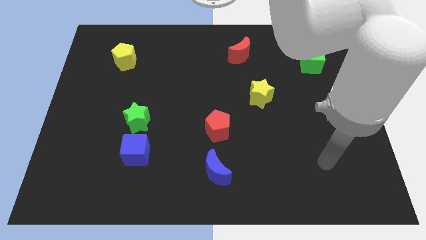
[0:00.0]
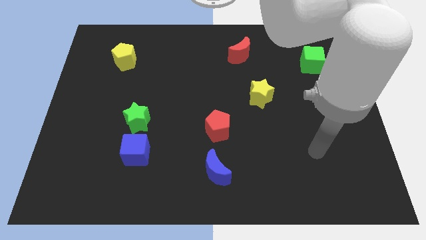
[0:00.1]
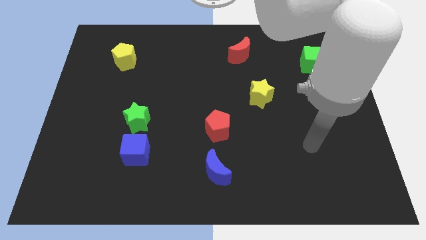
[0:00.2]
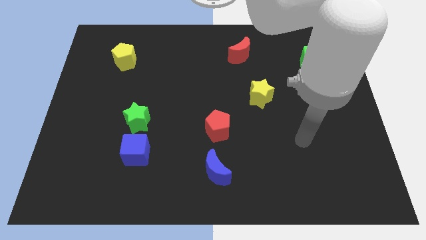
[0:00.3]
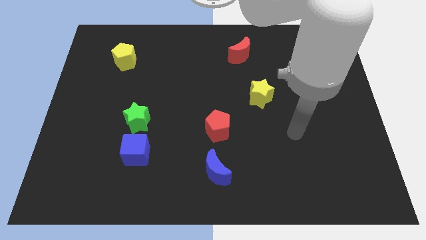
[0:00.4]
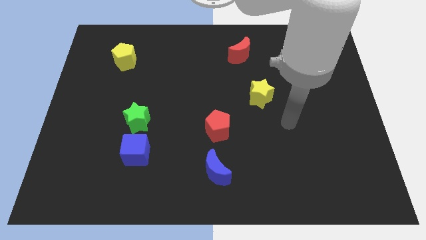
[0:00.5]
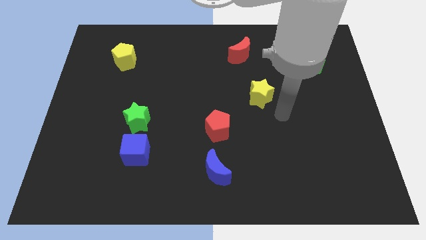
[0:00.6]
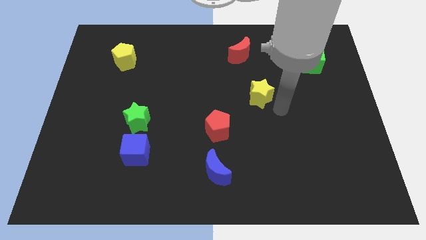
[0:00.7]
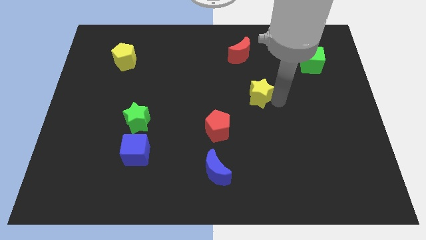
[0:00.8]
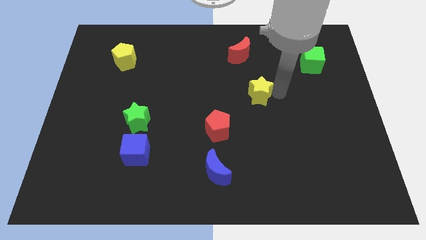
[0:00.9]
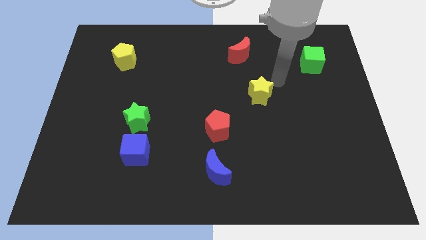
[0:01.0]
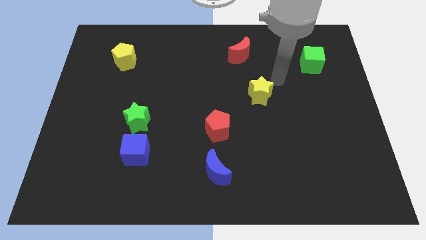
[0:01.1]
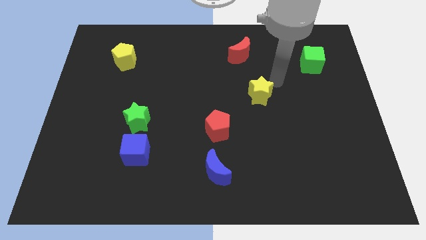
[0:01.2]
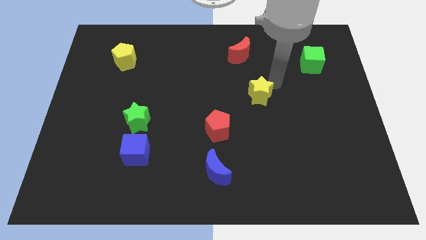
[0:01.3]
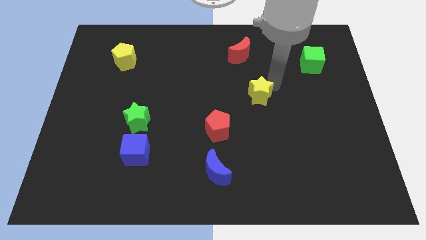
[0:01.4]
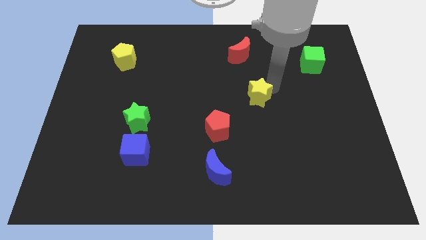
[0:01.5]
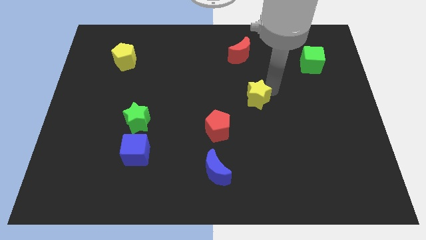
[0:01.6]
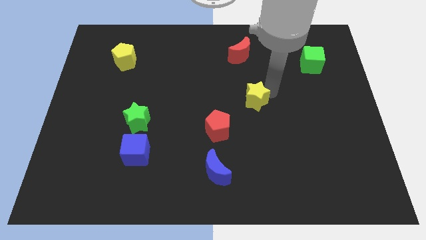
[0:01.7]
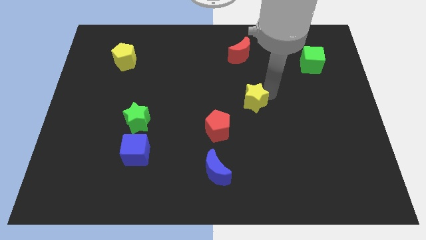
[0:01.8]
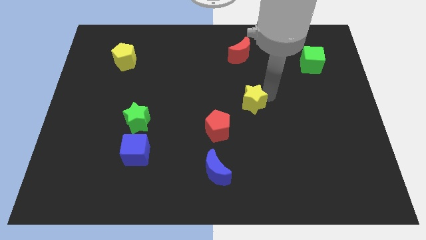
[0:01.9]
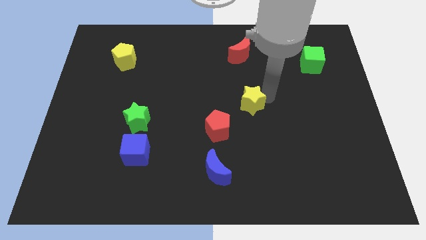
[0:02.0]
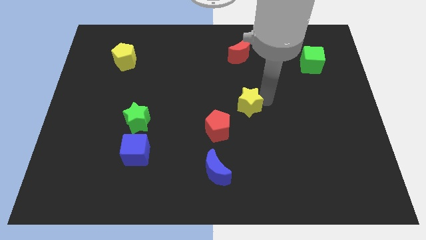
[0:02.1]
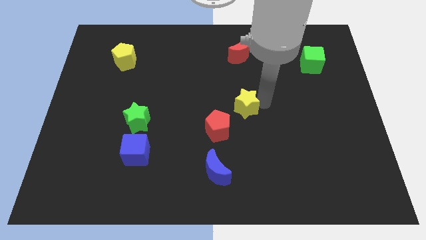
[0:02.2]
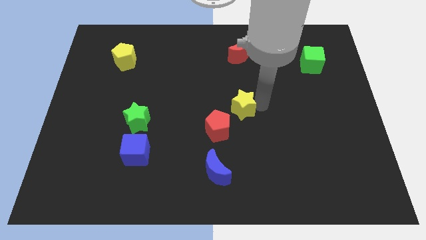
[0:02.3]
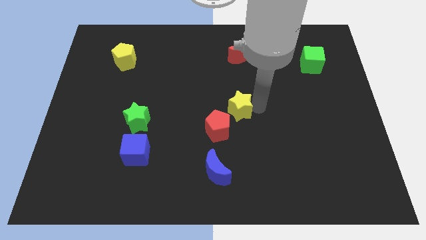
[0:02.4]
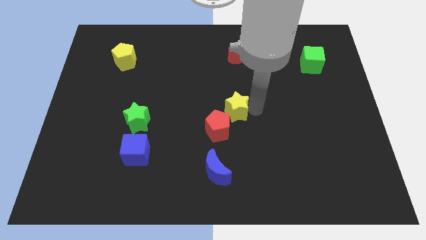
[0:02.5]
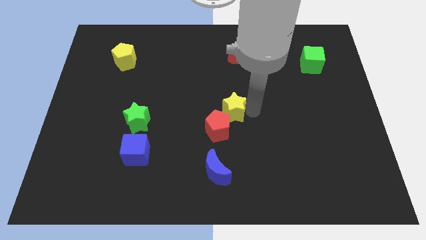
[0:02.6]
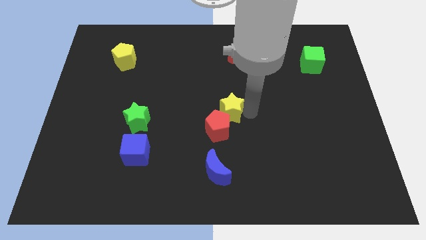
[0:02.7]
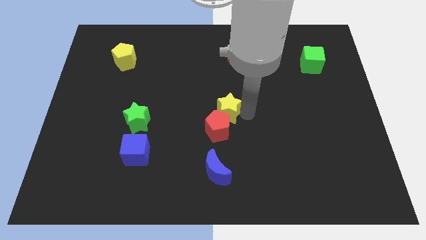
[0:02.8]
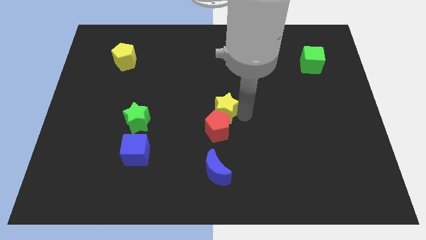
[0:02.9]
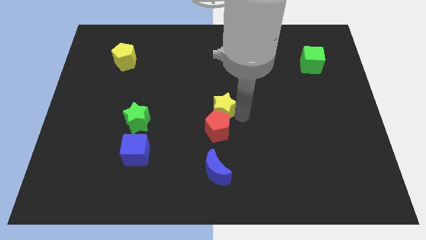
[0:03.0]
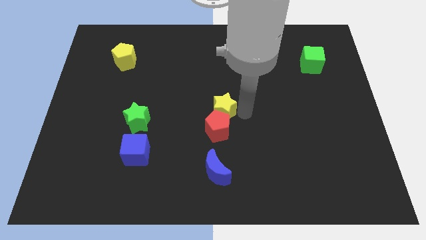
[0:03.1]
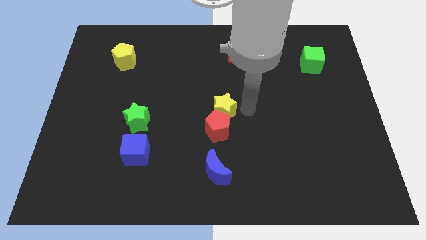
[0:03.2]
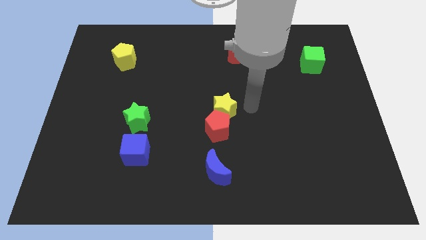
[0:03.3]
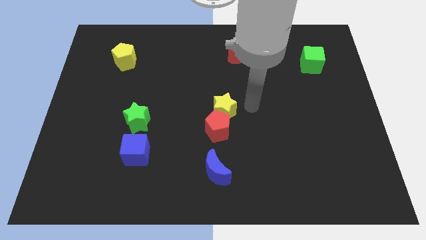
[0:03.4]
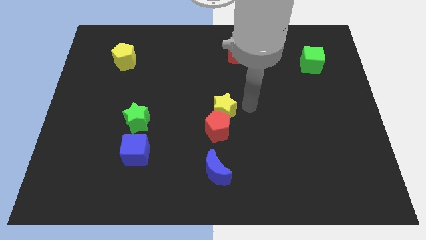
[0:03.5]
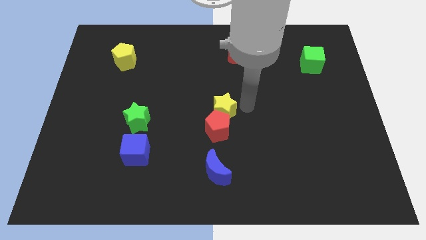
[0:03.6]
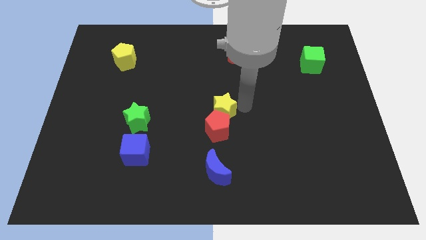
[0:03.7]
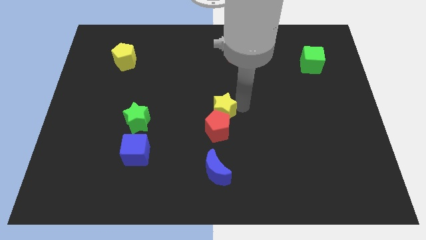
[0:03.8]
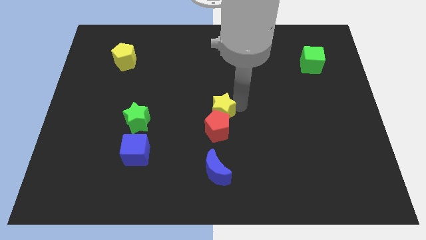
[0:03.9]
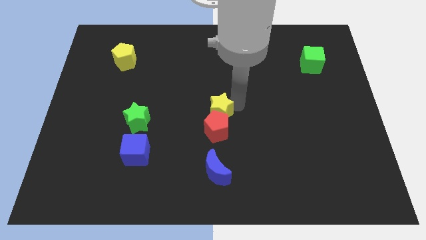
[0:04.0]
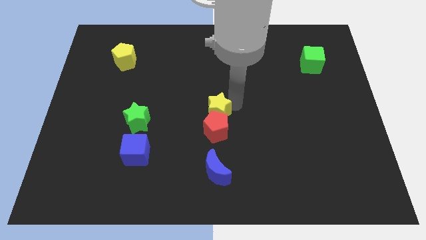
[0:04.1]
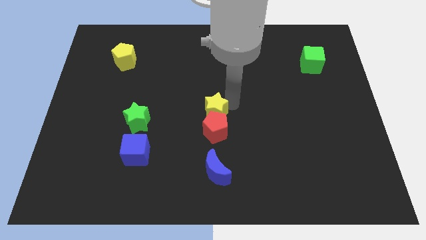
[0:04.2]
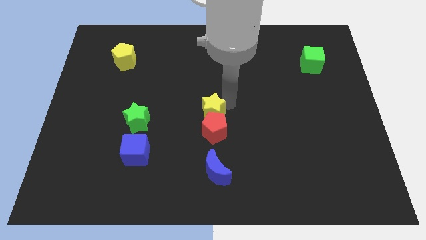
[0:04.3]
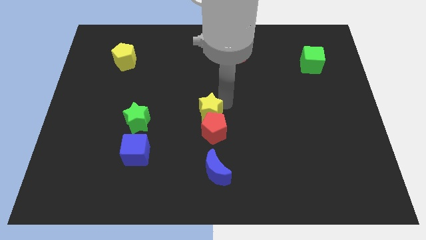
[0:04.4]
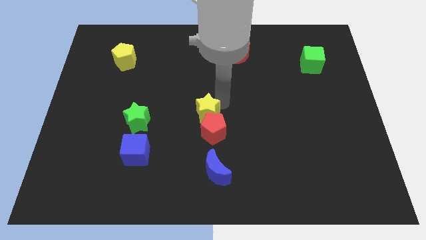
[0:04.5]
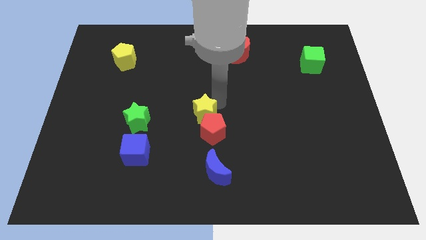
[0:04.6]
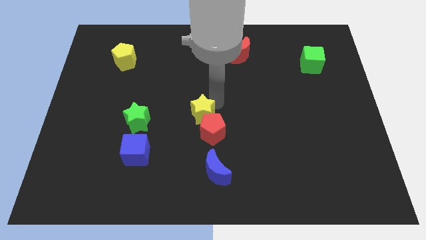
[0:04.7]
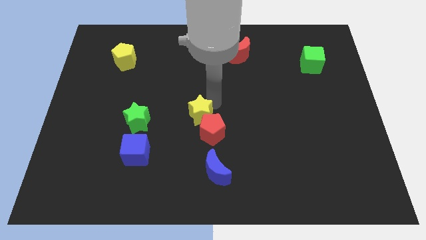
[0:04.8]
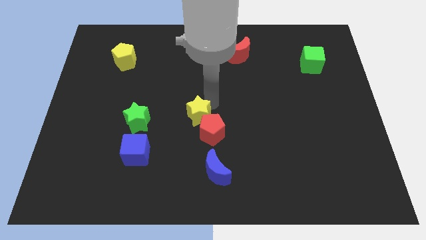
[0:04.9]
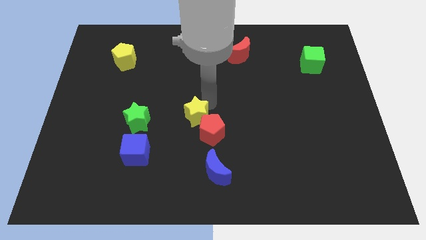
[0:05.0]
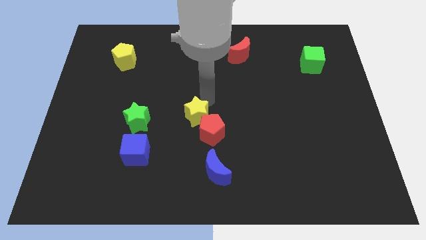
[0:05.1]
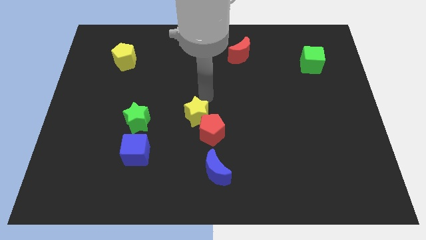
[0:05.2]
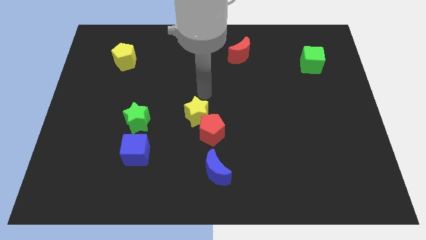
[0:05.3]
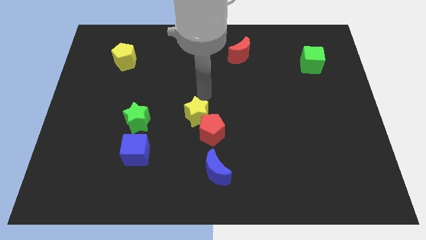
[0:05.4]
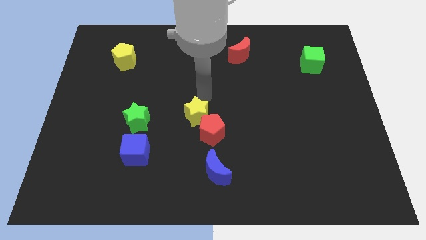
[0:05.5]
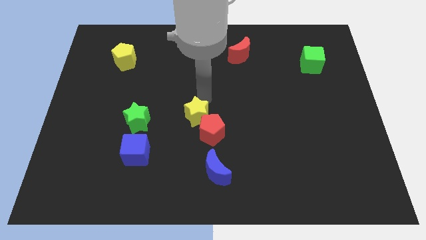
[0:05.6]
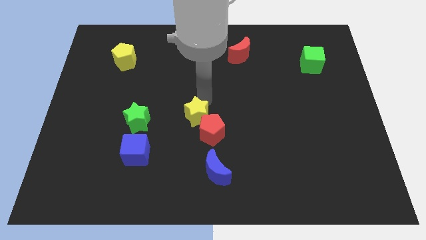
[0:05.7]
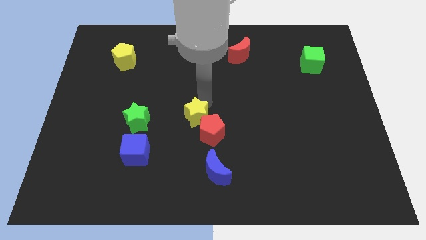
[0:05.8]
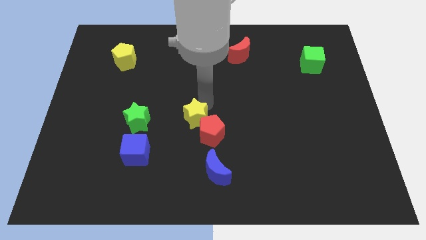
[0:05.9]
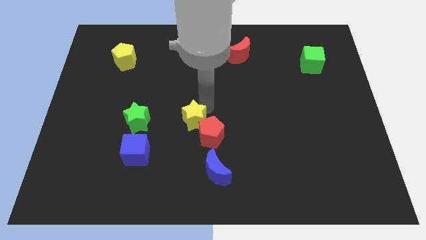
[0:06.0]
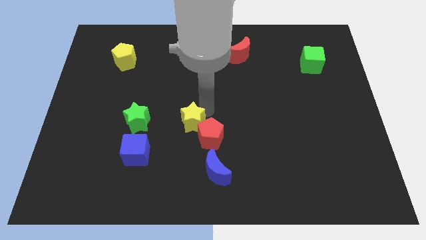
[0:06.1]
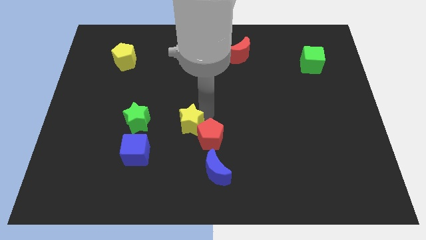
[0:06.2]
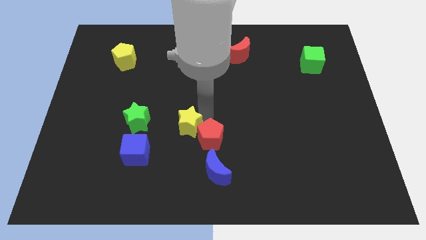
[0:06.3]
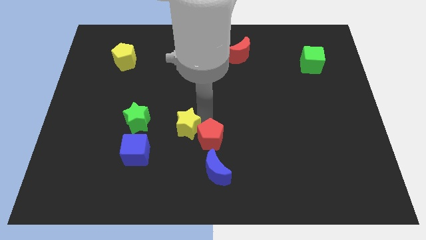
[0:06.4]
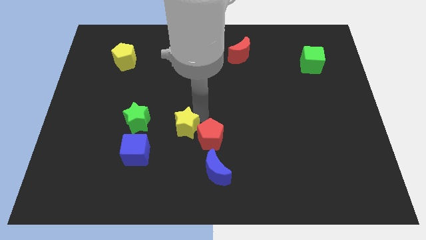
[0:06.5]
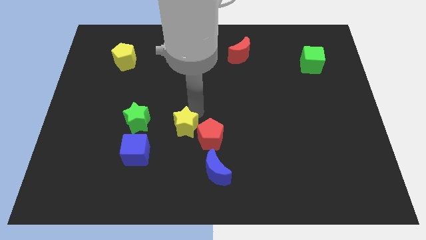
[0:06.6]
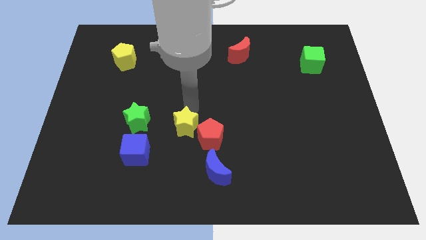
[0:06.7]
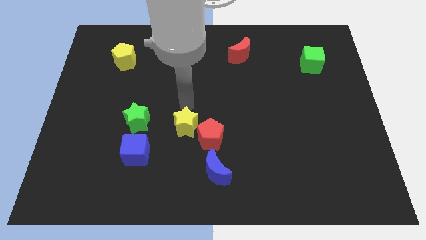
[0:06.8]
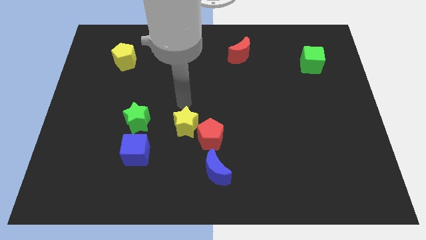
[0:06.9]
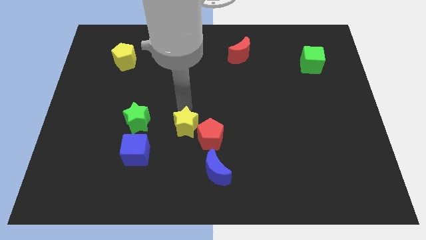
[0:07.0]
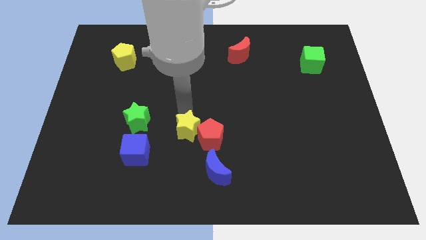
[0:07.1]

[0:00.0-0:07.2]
move the yellow star diagonally up and to the left of the blue moon
